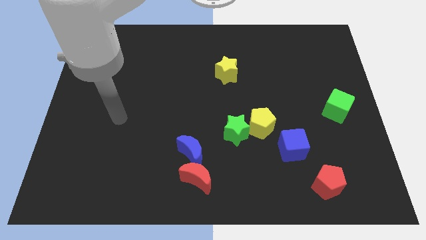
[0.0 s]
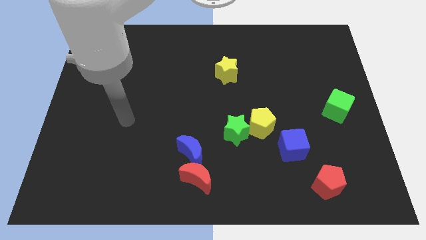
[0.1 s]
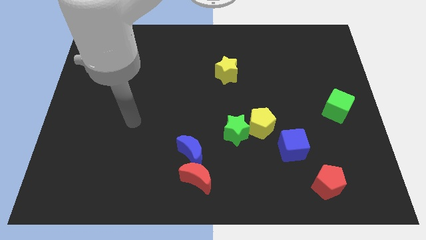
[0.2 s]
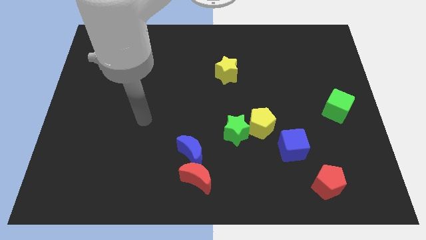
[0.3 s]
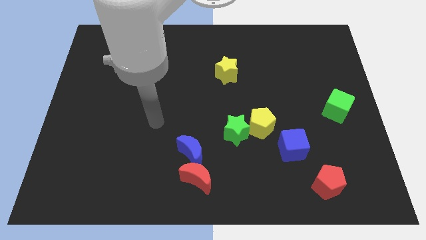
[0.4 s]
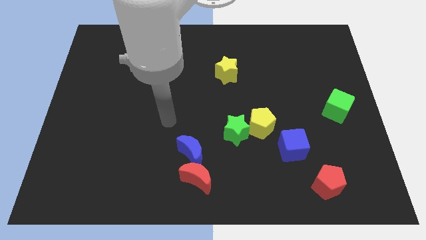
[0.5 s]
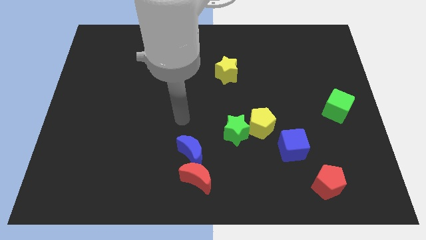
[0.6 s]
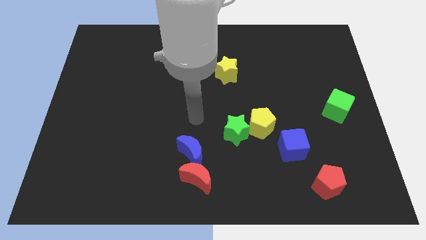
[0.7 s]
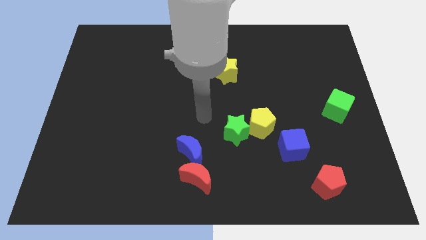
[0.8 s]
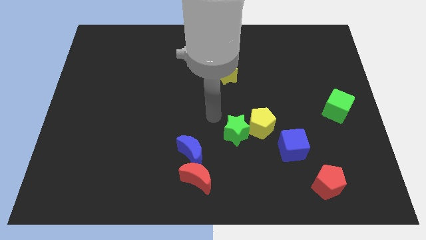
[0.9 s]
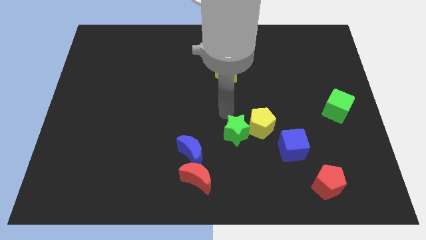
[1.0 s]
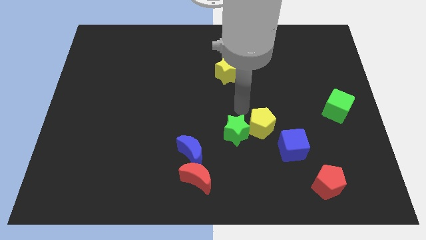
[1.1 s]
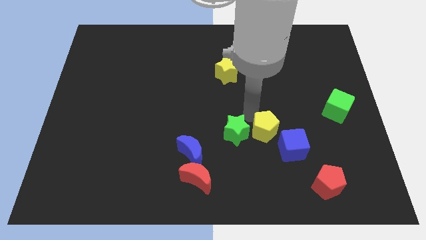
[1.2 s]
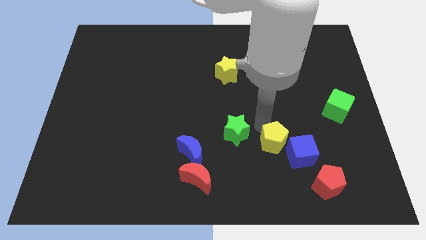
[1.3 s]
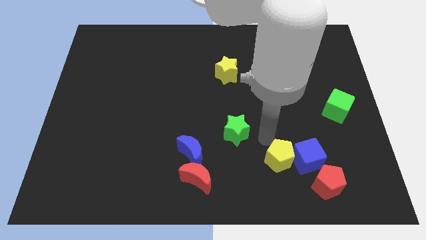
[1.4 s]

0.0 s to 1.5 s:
separate the green star from the yellow pentagon

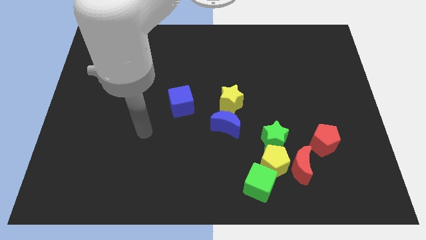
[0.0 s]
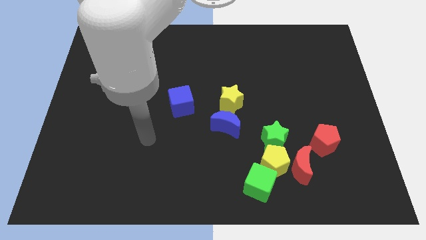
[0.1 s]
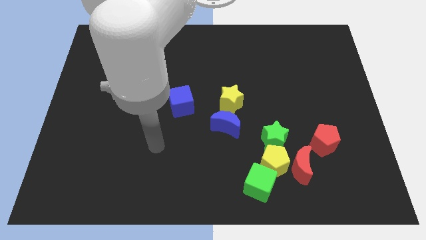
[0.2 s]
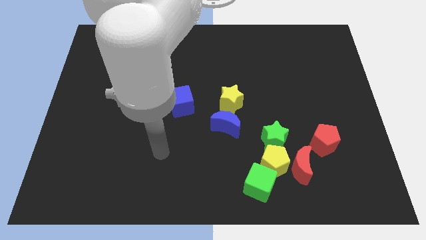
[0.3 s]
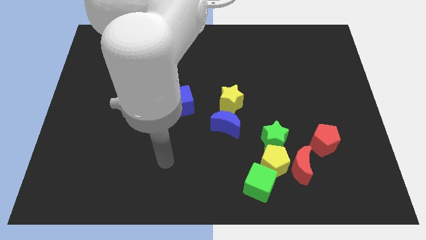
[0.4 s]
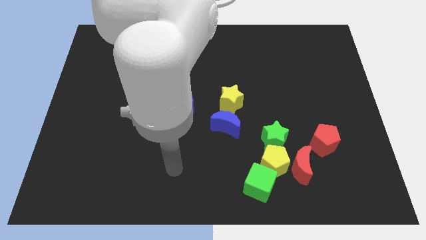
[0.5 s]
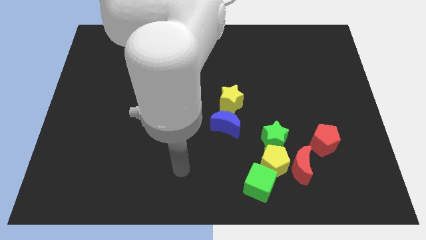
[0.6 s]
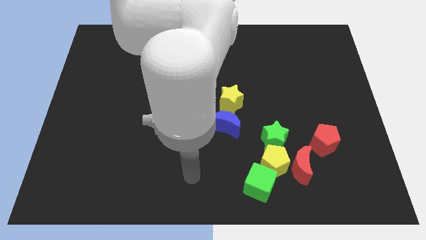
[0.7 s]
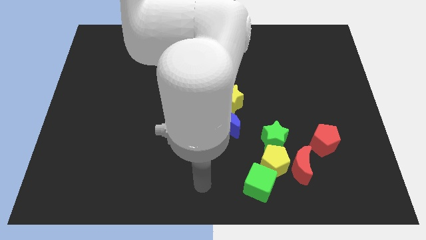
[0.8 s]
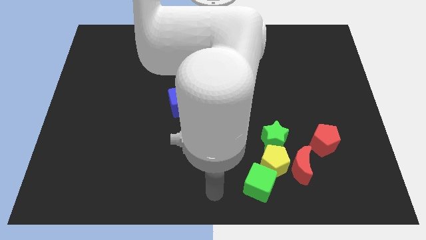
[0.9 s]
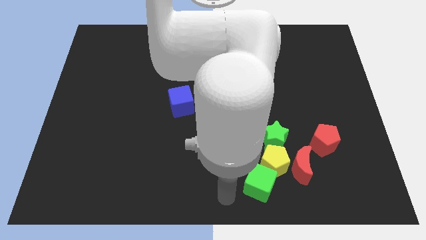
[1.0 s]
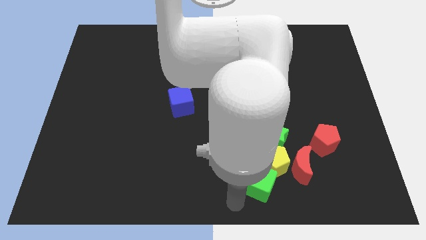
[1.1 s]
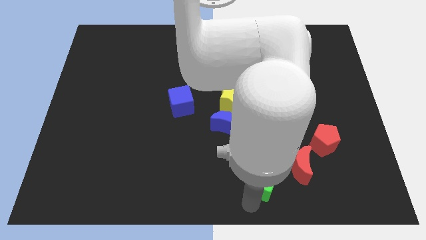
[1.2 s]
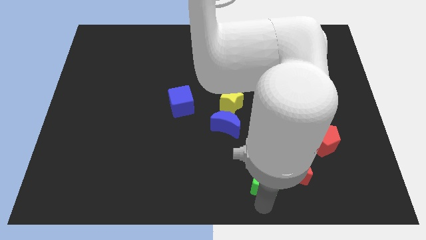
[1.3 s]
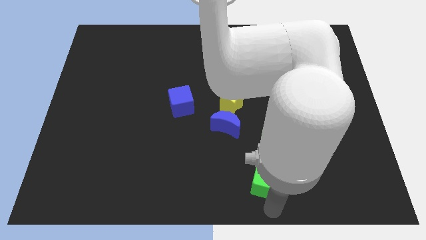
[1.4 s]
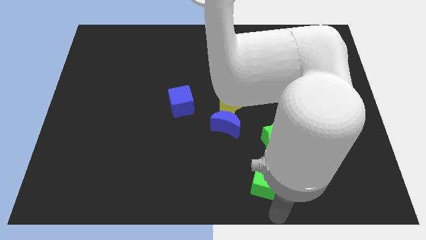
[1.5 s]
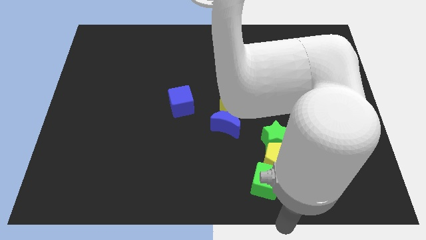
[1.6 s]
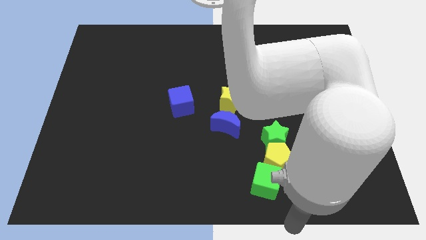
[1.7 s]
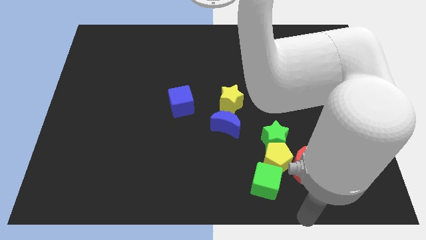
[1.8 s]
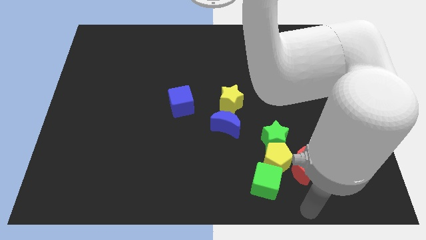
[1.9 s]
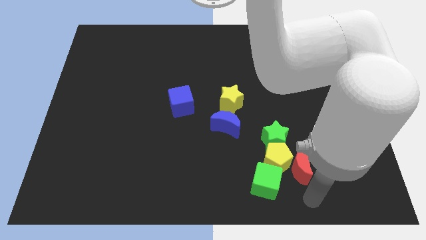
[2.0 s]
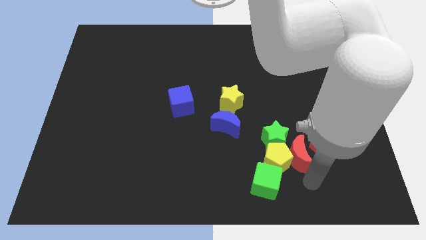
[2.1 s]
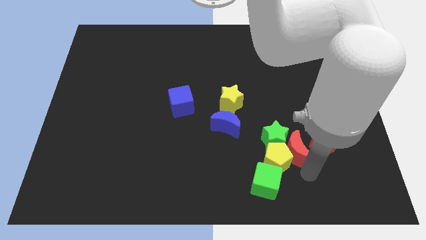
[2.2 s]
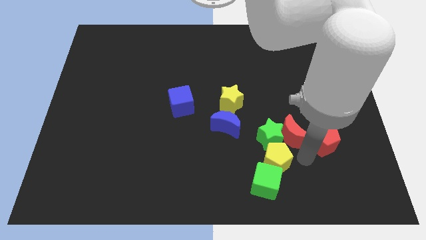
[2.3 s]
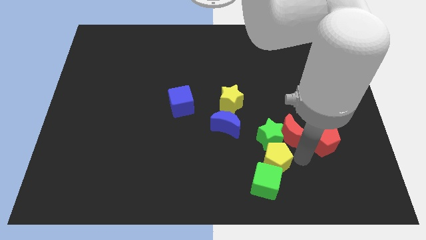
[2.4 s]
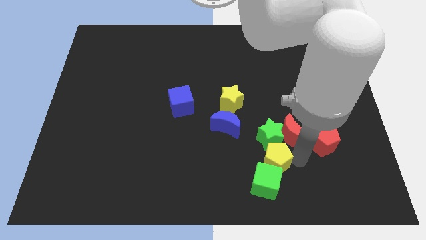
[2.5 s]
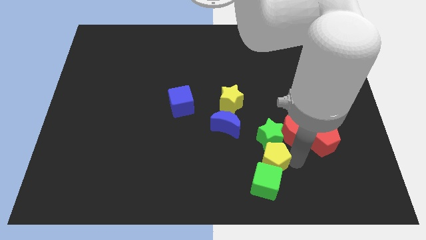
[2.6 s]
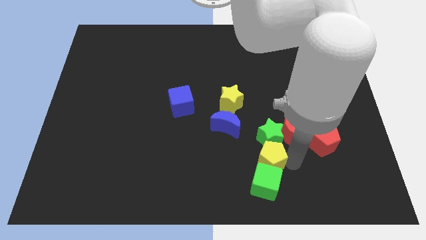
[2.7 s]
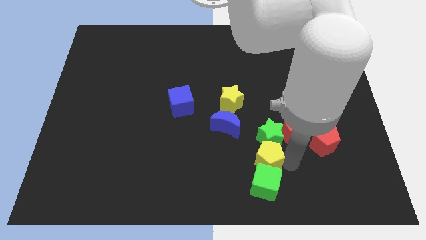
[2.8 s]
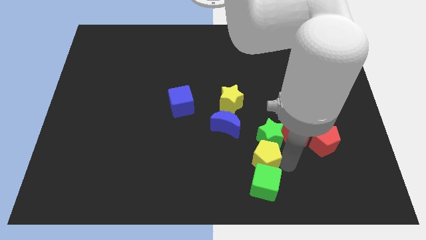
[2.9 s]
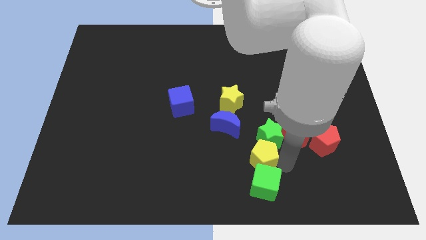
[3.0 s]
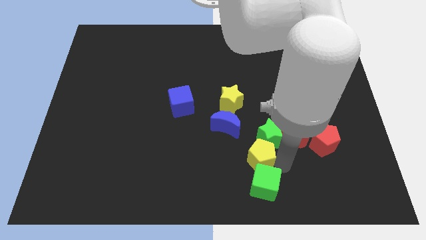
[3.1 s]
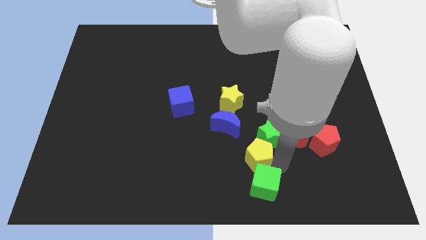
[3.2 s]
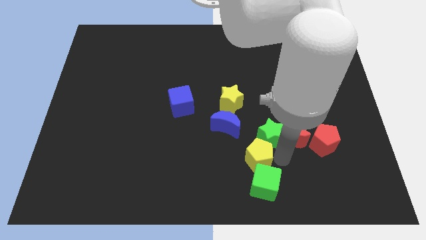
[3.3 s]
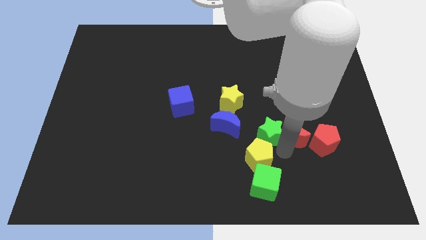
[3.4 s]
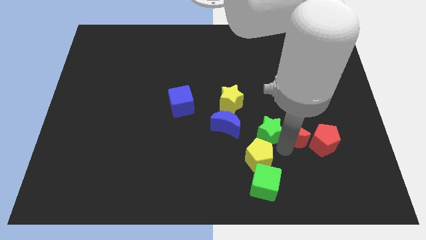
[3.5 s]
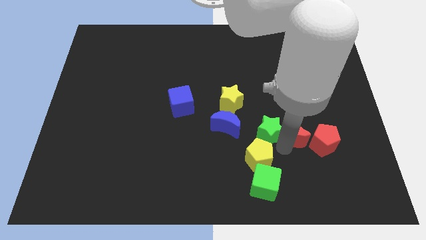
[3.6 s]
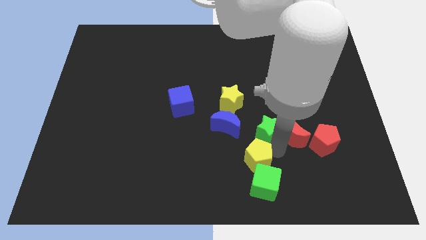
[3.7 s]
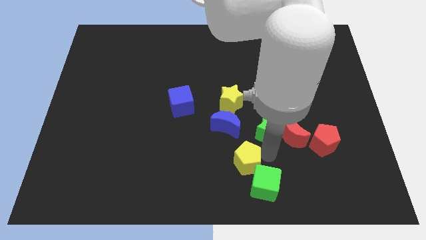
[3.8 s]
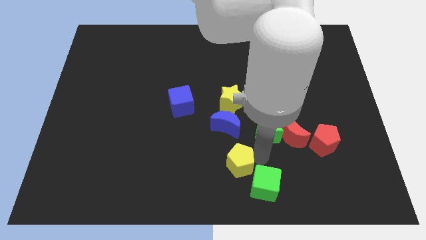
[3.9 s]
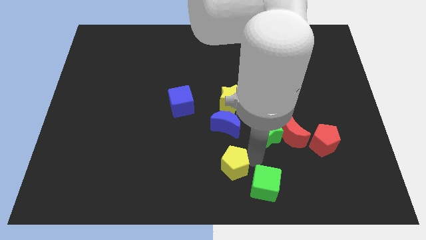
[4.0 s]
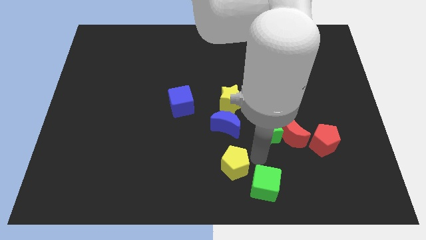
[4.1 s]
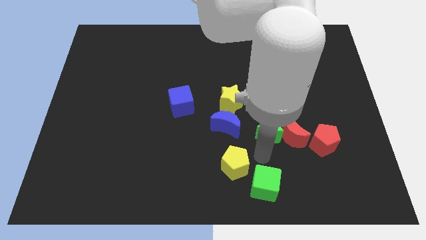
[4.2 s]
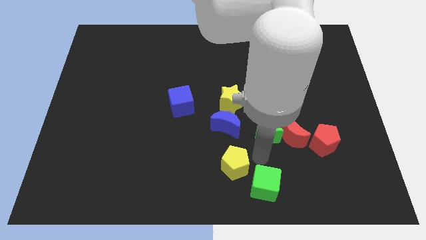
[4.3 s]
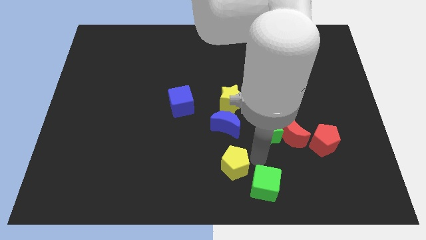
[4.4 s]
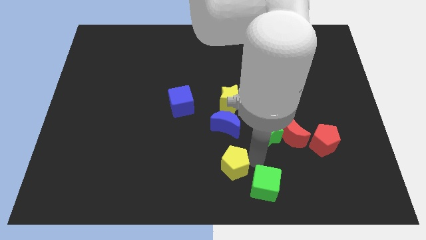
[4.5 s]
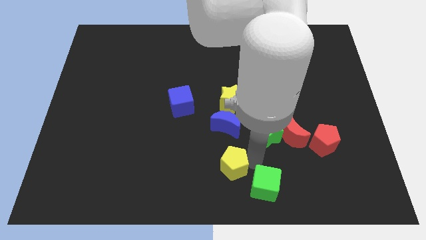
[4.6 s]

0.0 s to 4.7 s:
move the yellow pentagon away from the red moon, green cube, and green star

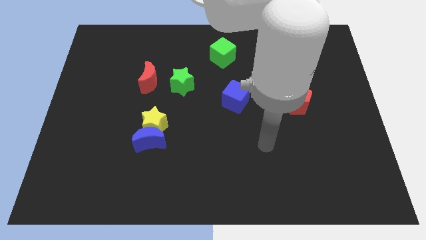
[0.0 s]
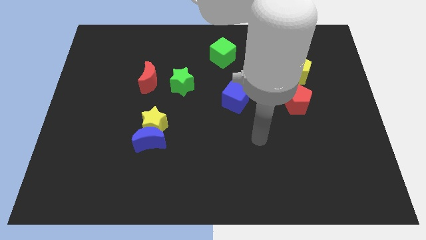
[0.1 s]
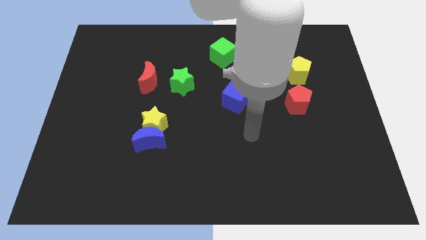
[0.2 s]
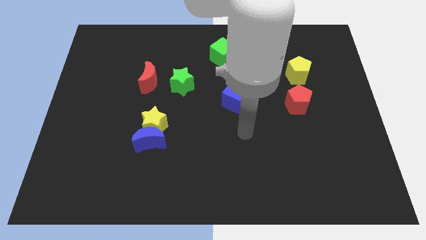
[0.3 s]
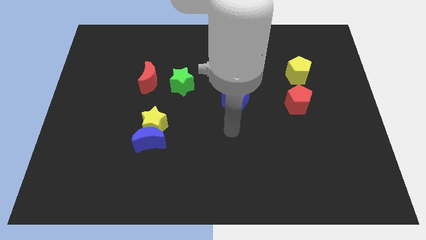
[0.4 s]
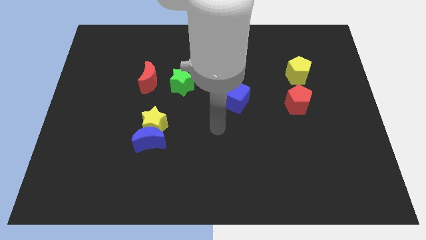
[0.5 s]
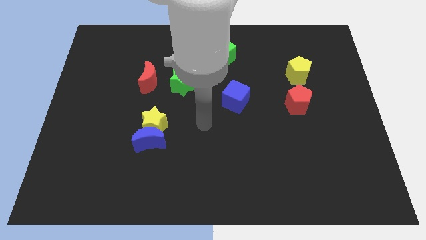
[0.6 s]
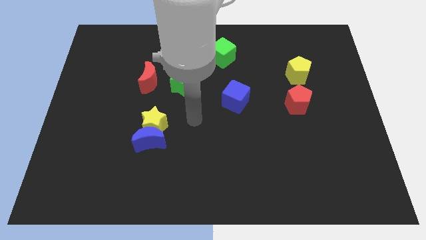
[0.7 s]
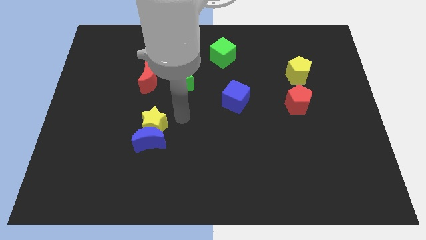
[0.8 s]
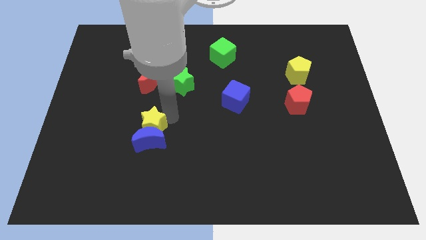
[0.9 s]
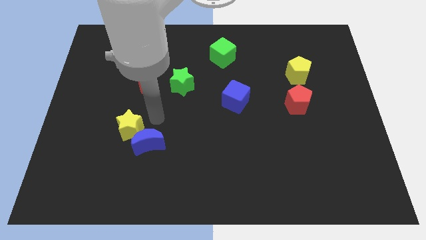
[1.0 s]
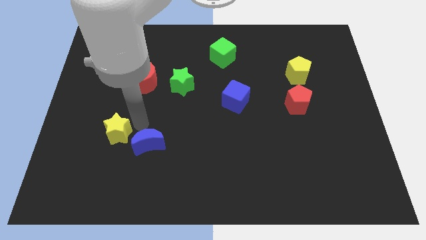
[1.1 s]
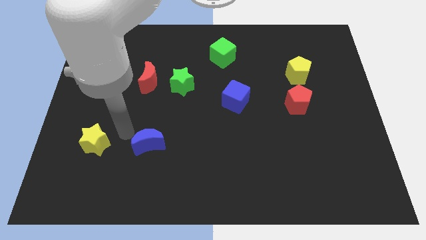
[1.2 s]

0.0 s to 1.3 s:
move the blue moon away from the yellow star

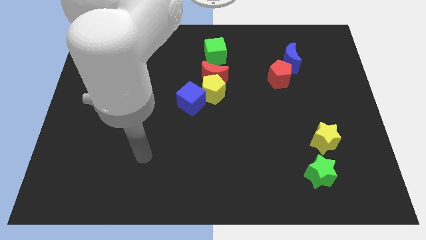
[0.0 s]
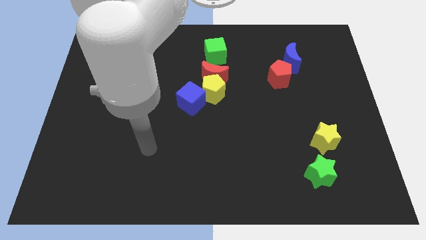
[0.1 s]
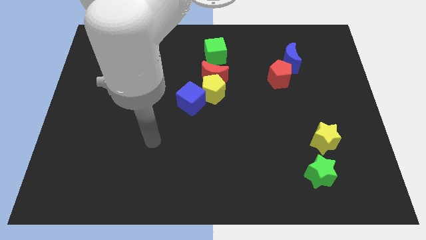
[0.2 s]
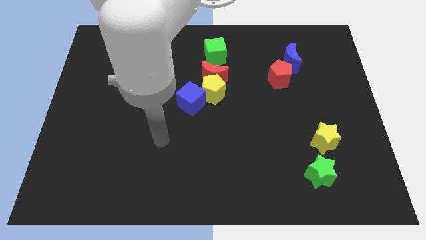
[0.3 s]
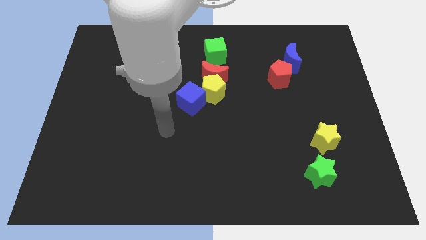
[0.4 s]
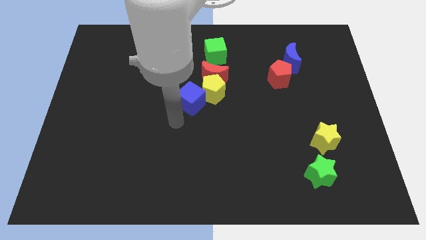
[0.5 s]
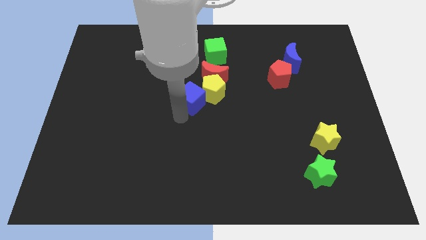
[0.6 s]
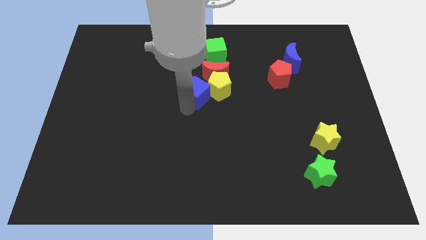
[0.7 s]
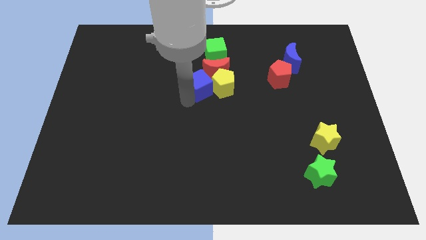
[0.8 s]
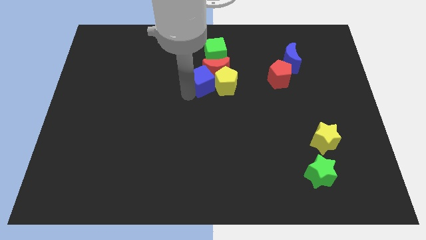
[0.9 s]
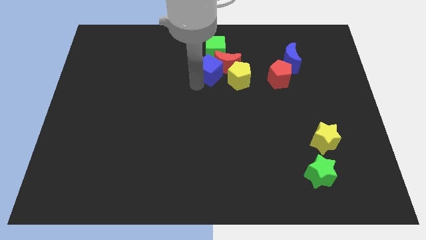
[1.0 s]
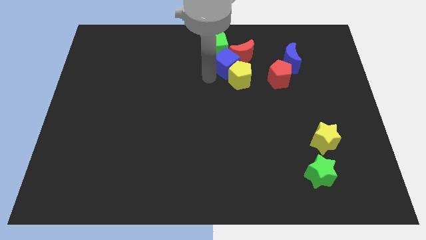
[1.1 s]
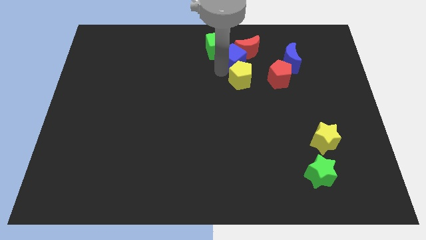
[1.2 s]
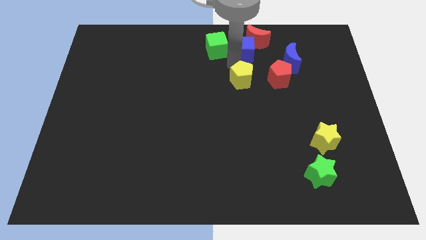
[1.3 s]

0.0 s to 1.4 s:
separate the yellow pentagon from the red moon and blue cube

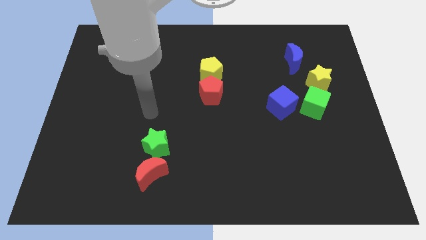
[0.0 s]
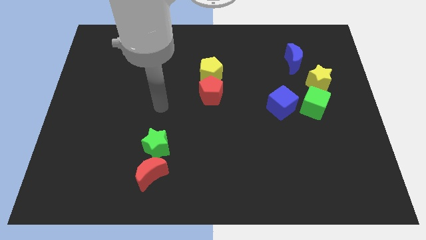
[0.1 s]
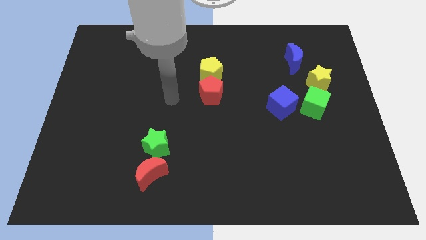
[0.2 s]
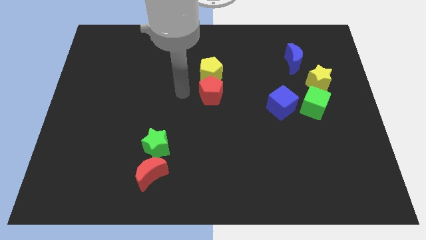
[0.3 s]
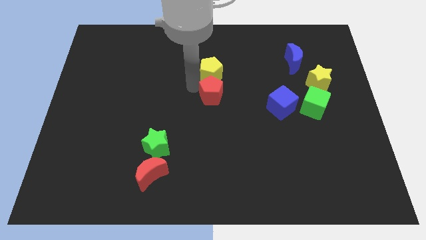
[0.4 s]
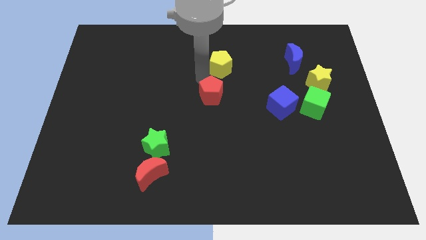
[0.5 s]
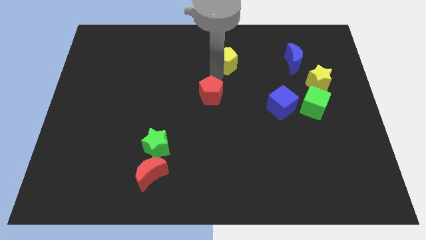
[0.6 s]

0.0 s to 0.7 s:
separate the red pentagon from the yellow pentagon
